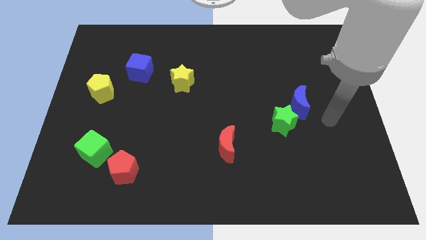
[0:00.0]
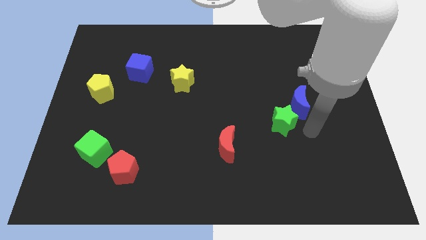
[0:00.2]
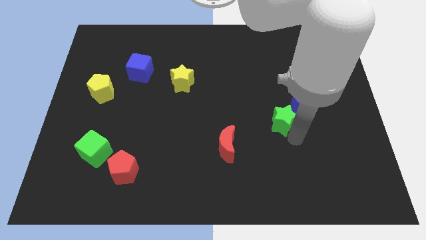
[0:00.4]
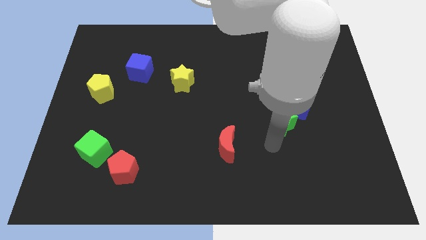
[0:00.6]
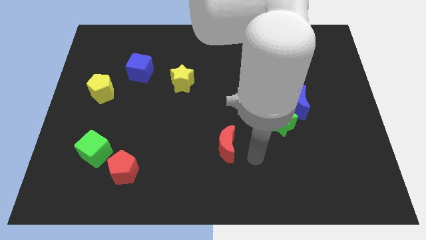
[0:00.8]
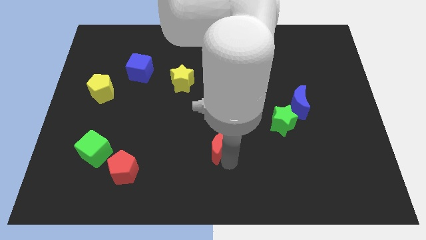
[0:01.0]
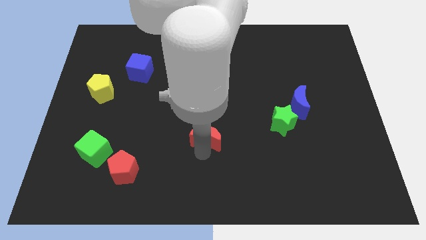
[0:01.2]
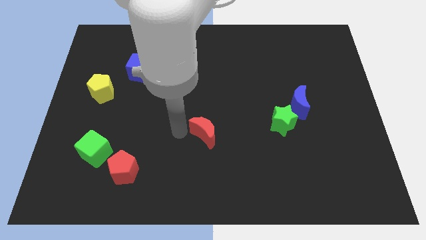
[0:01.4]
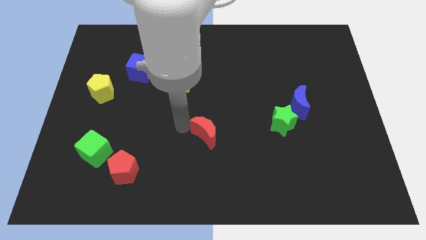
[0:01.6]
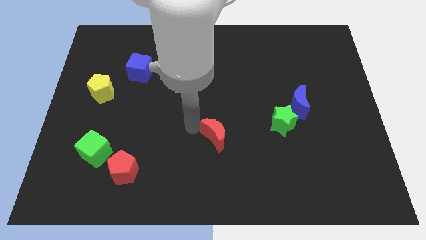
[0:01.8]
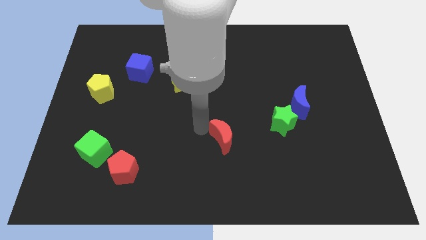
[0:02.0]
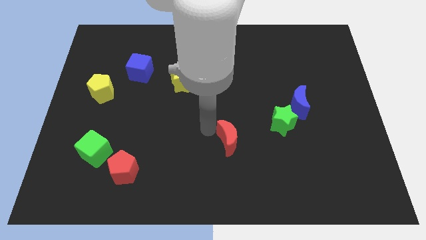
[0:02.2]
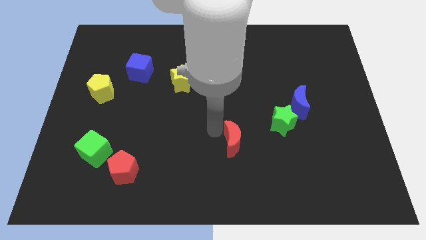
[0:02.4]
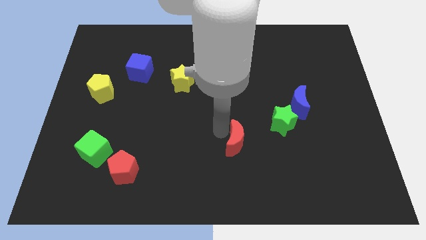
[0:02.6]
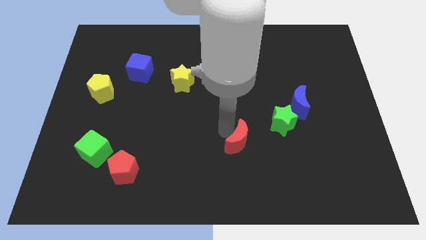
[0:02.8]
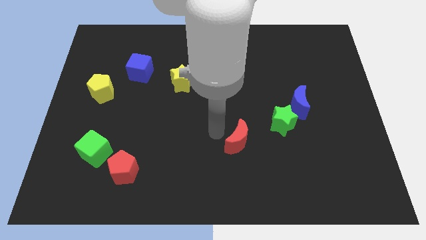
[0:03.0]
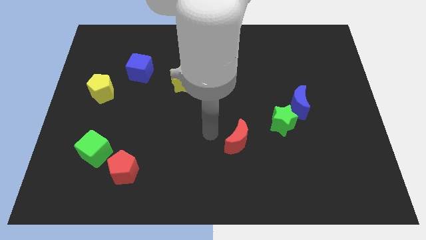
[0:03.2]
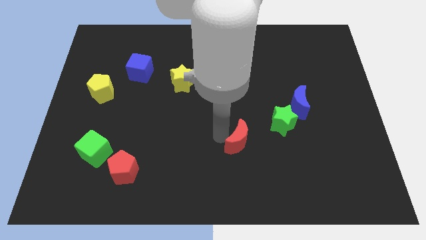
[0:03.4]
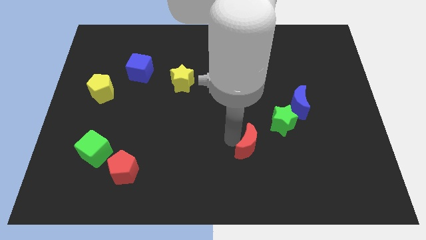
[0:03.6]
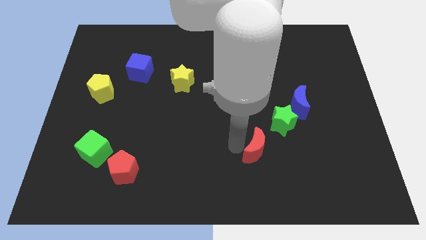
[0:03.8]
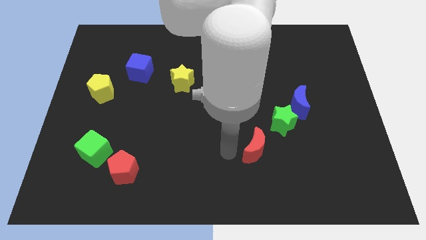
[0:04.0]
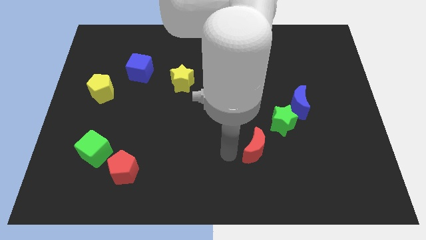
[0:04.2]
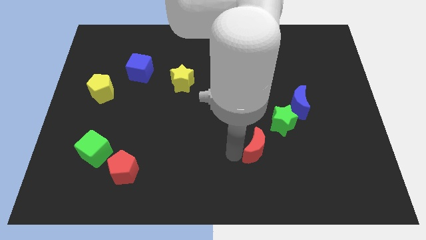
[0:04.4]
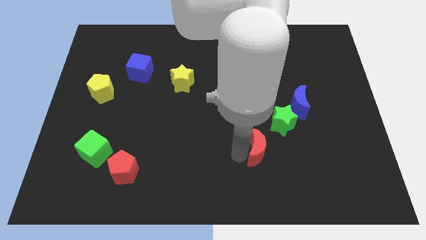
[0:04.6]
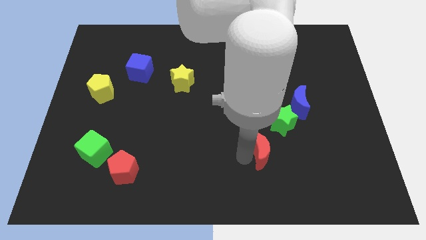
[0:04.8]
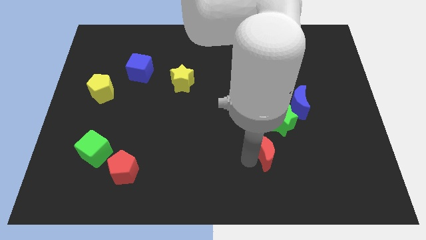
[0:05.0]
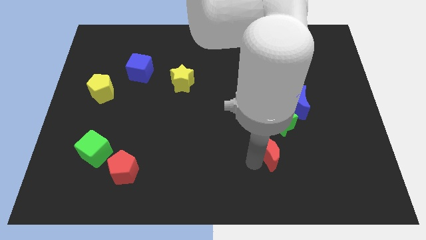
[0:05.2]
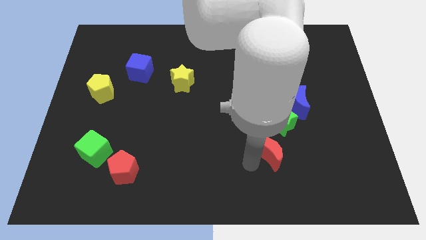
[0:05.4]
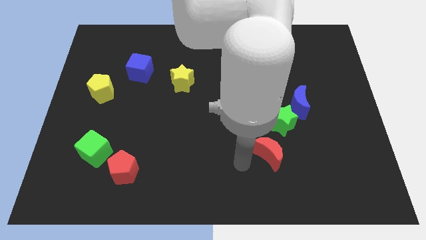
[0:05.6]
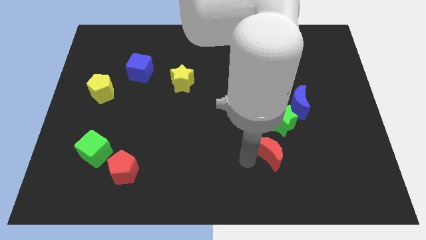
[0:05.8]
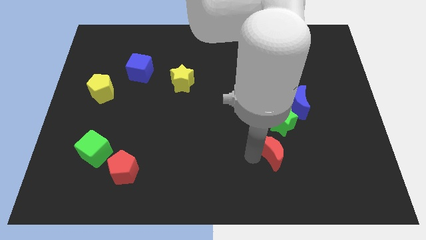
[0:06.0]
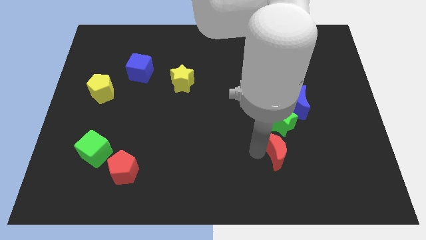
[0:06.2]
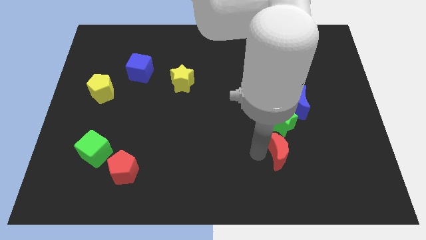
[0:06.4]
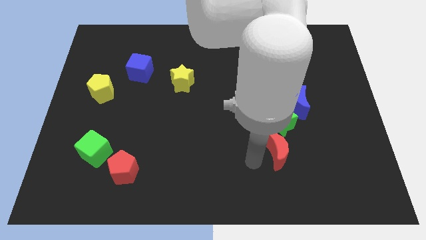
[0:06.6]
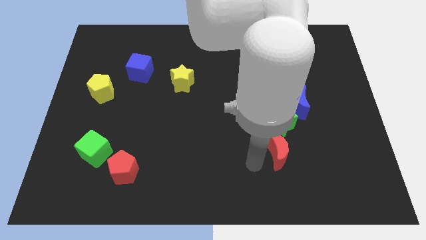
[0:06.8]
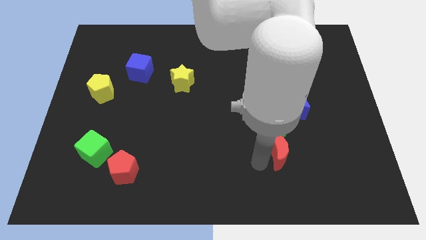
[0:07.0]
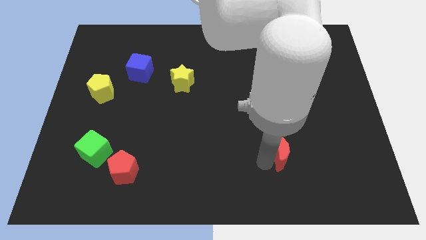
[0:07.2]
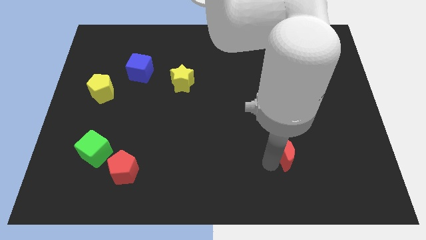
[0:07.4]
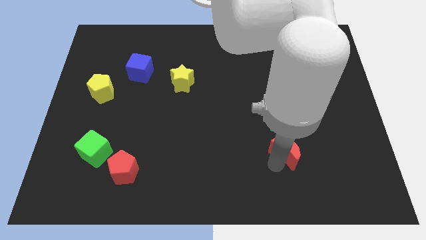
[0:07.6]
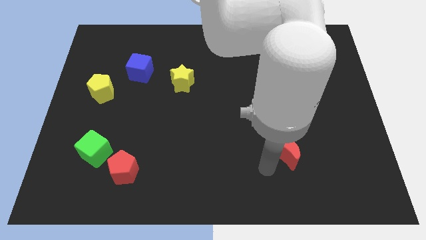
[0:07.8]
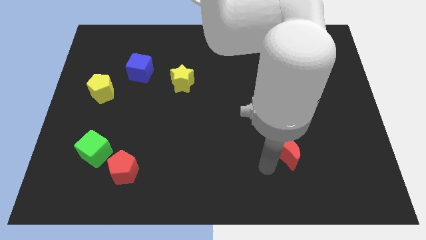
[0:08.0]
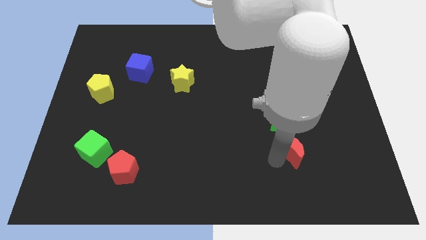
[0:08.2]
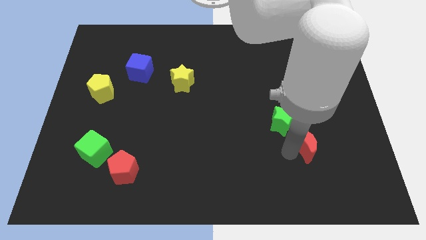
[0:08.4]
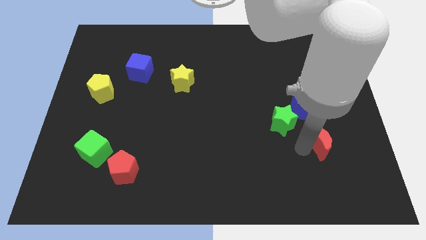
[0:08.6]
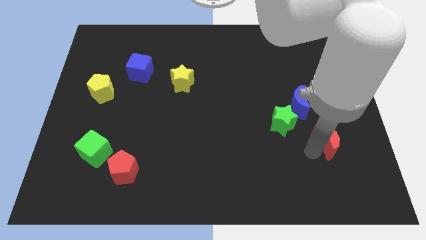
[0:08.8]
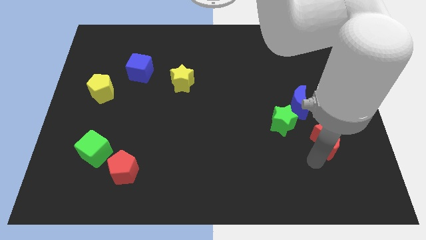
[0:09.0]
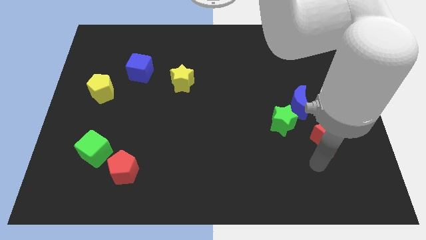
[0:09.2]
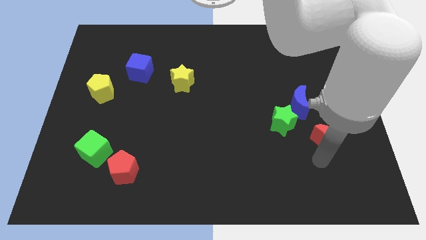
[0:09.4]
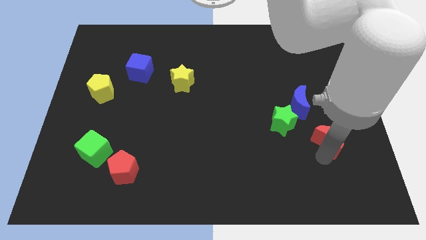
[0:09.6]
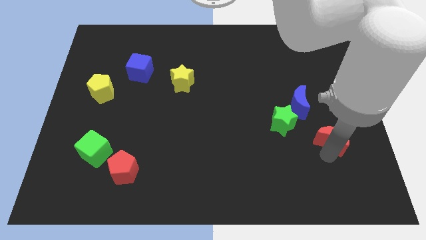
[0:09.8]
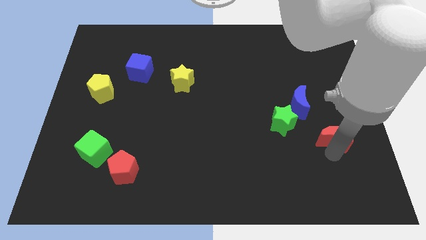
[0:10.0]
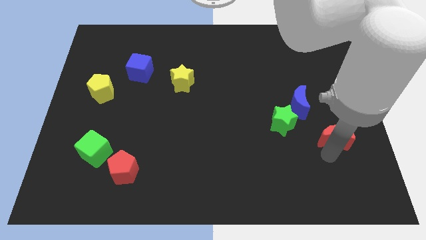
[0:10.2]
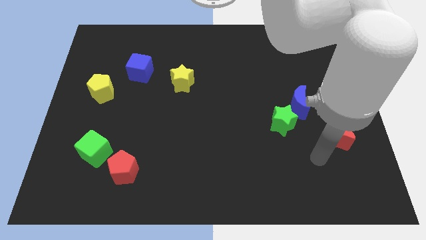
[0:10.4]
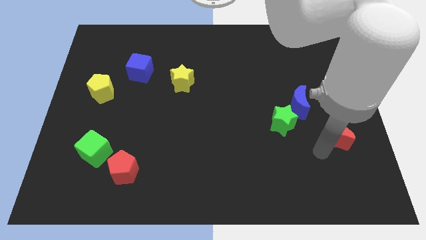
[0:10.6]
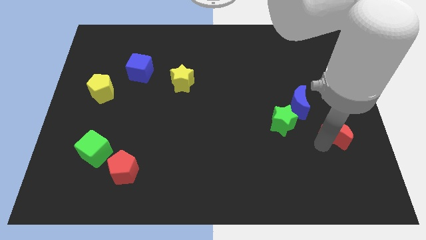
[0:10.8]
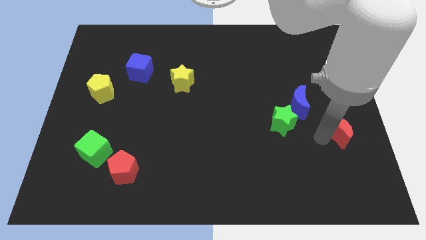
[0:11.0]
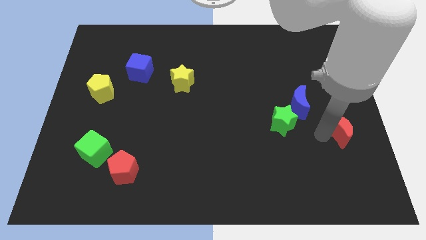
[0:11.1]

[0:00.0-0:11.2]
slide the red moon to the right side of the board

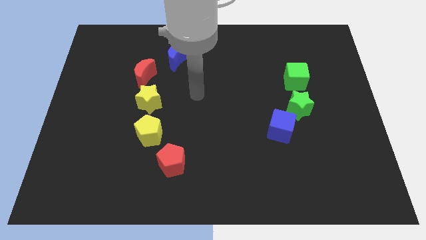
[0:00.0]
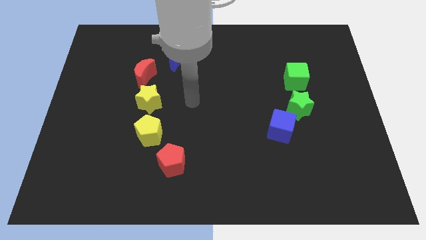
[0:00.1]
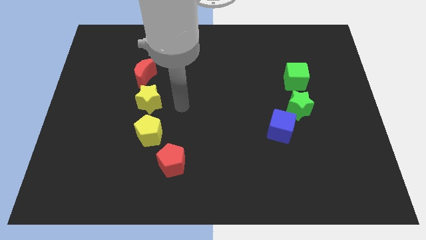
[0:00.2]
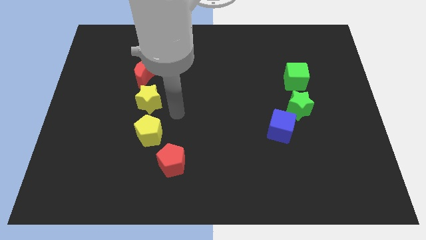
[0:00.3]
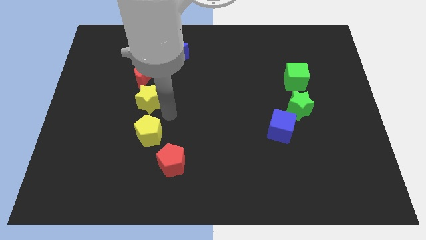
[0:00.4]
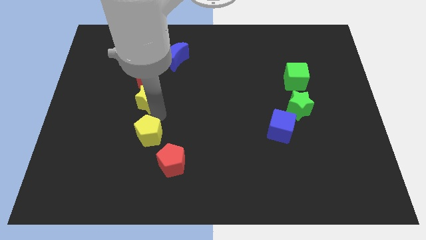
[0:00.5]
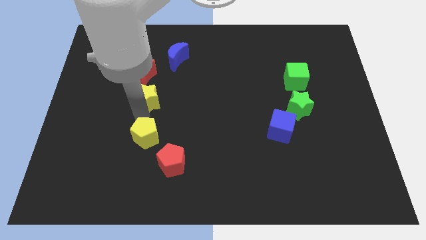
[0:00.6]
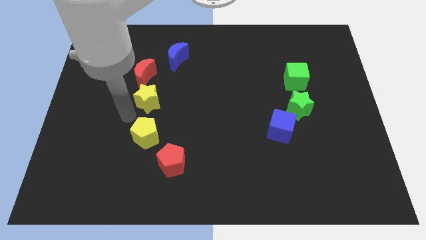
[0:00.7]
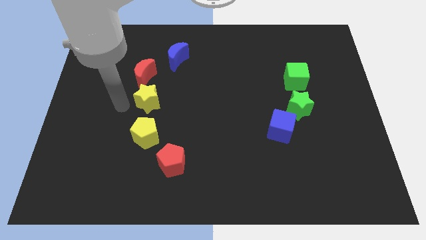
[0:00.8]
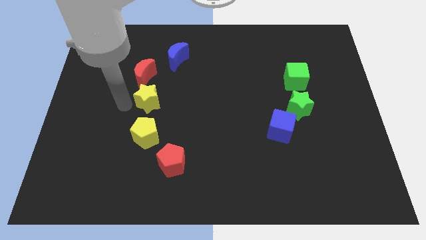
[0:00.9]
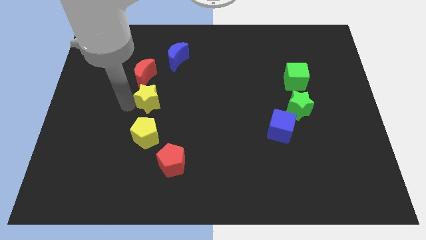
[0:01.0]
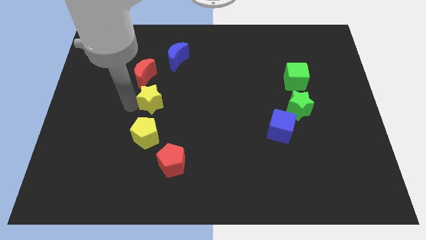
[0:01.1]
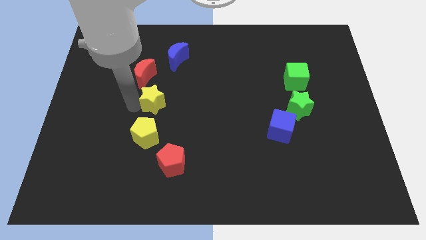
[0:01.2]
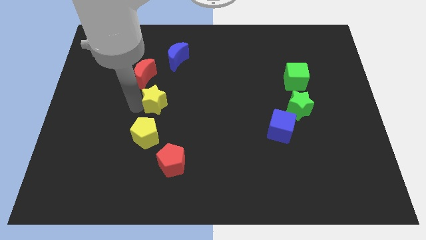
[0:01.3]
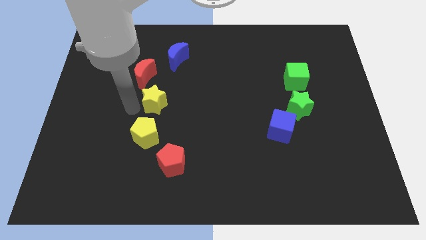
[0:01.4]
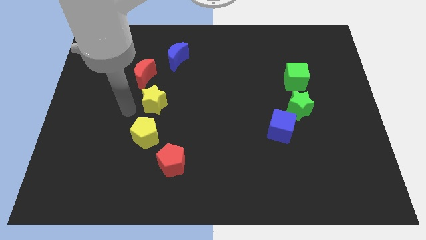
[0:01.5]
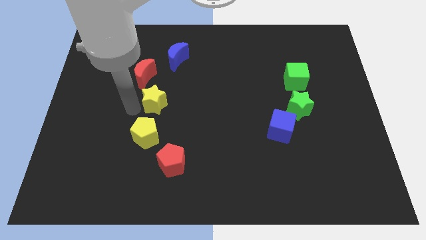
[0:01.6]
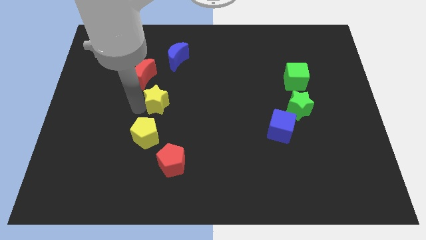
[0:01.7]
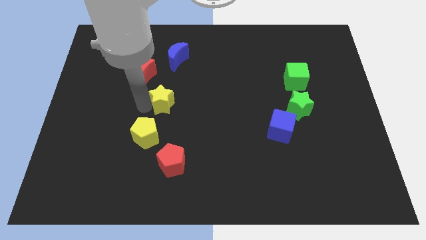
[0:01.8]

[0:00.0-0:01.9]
move the yellow star to the middle of the board
